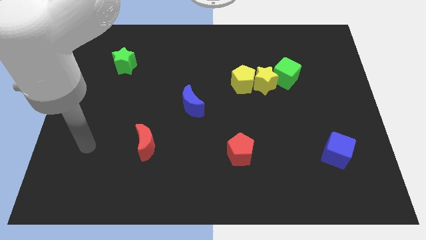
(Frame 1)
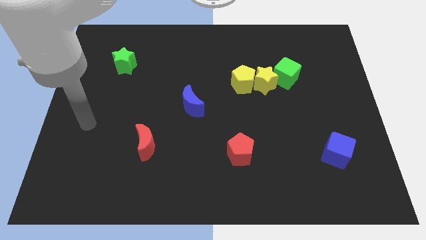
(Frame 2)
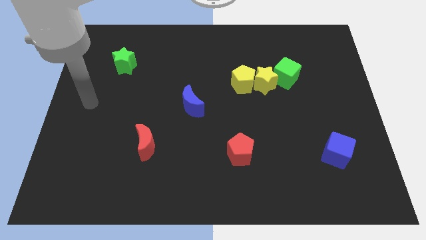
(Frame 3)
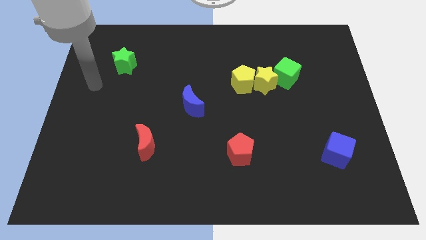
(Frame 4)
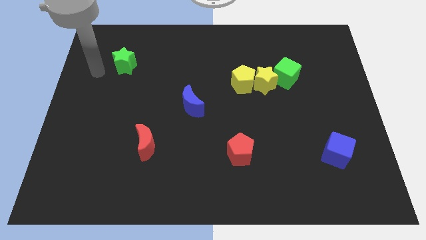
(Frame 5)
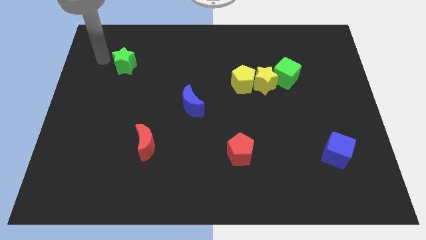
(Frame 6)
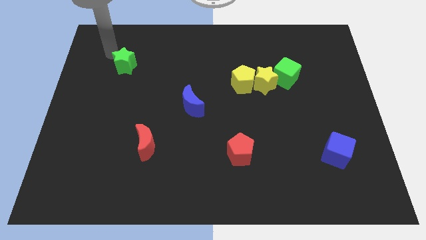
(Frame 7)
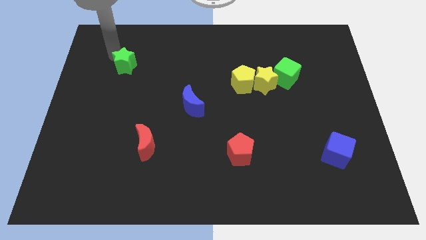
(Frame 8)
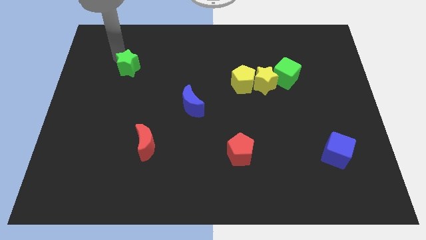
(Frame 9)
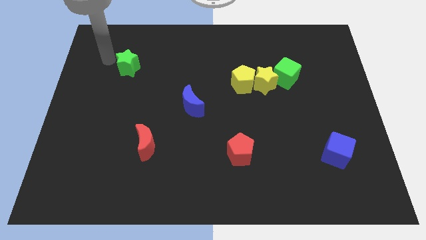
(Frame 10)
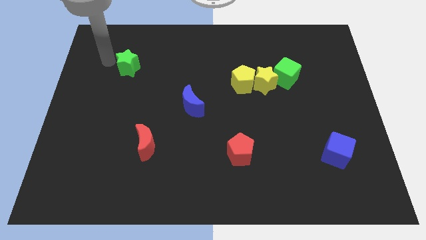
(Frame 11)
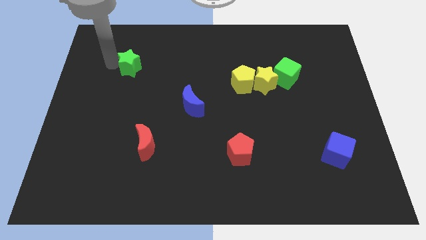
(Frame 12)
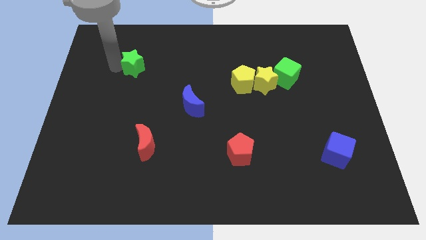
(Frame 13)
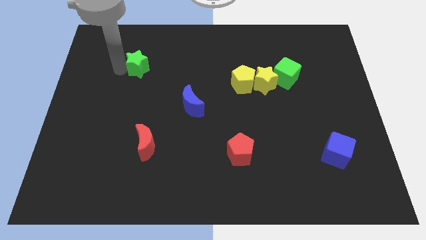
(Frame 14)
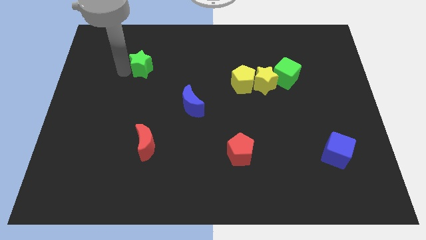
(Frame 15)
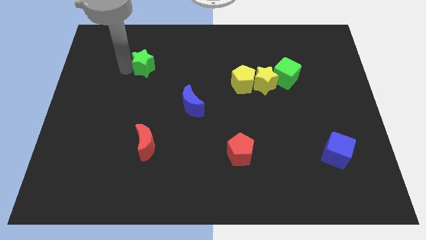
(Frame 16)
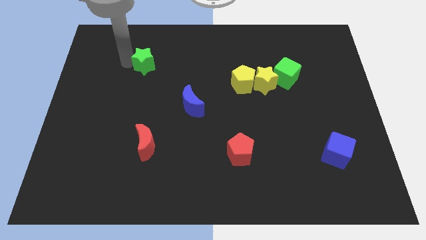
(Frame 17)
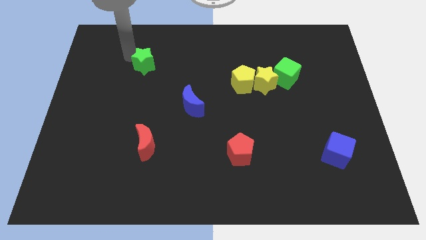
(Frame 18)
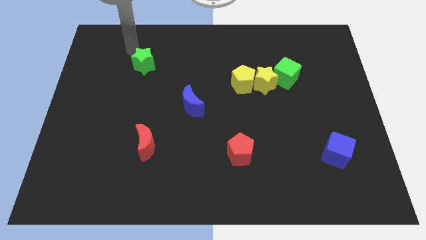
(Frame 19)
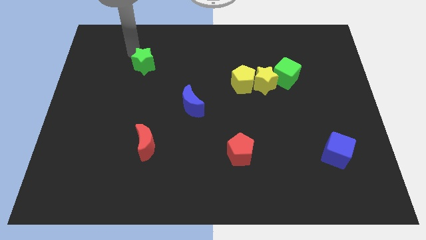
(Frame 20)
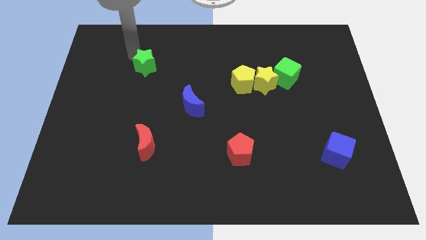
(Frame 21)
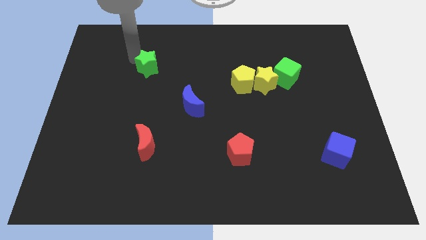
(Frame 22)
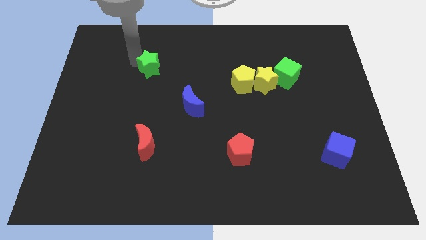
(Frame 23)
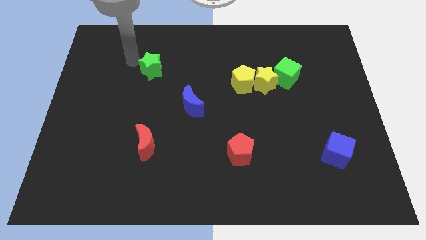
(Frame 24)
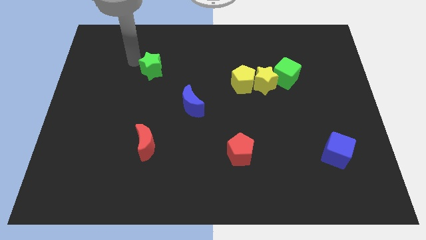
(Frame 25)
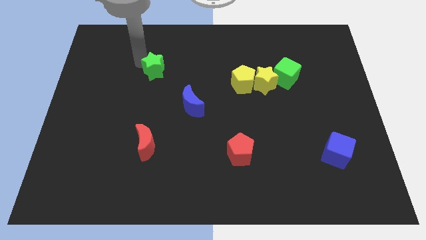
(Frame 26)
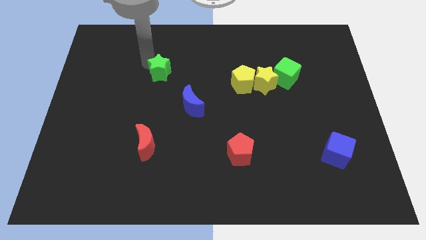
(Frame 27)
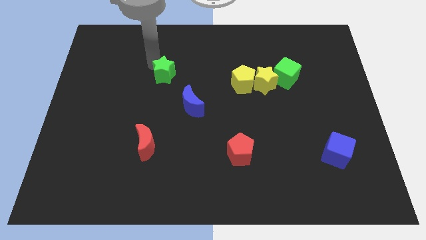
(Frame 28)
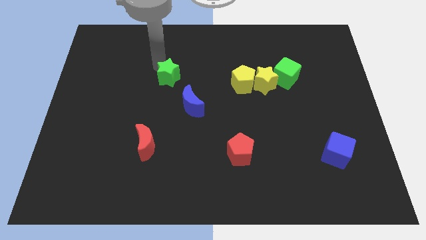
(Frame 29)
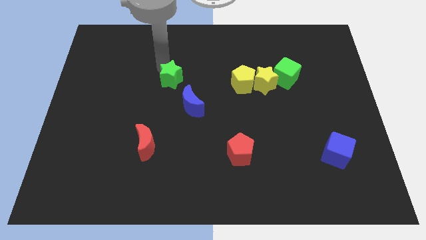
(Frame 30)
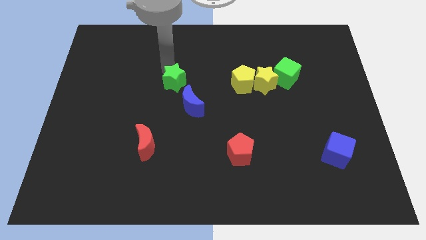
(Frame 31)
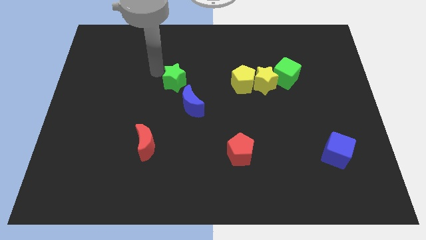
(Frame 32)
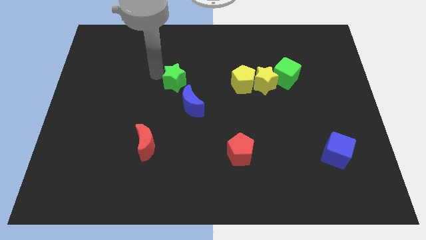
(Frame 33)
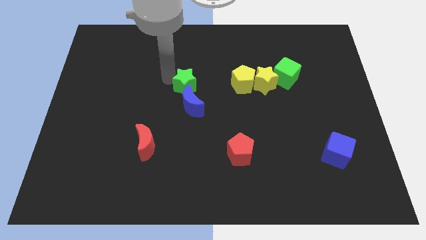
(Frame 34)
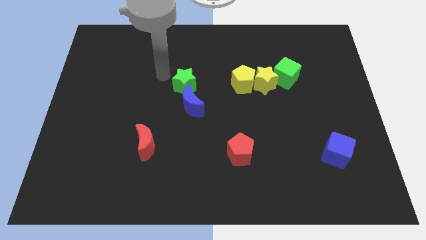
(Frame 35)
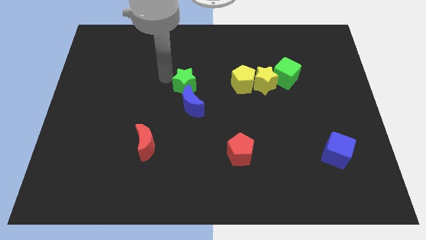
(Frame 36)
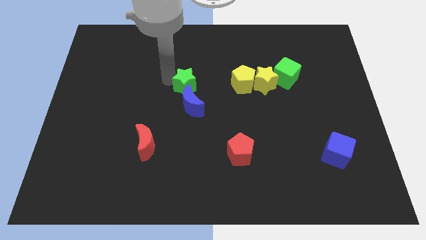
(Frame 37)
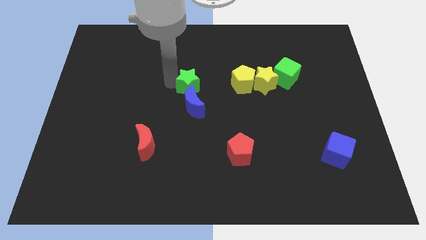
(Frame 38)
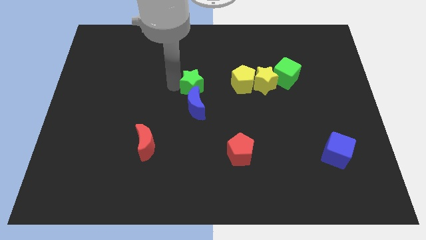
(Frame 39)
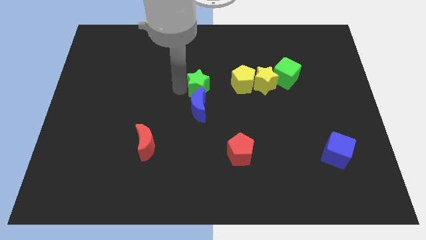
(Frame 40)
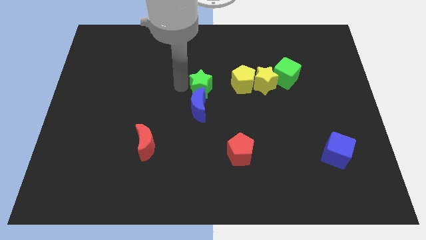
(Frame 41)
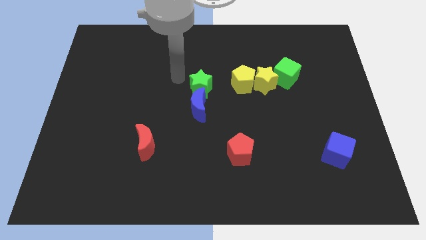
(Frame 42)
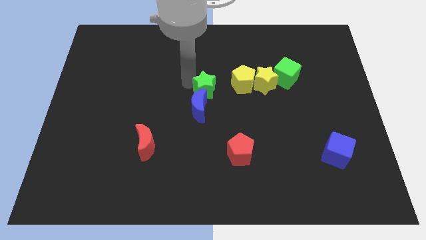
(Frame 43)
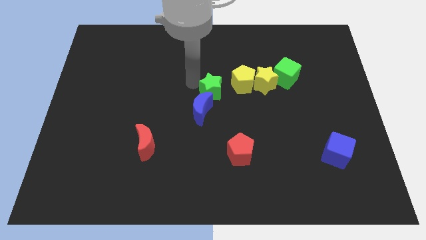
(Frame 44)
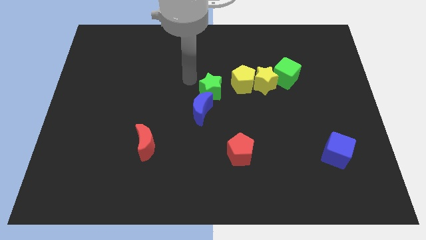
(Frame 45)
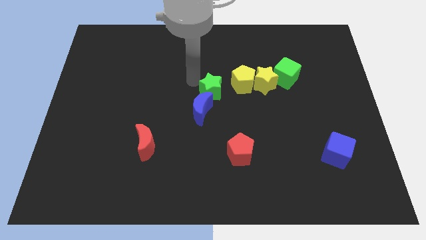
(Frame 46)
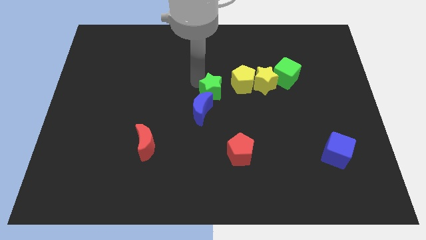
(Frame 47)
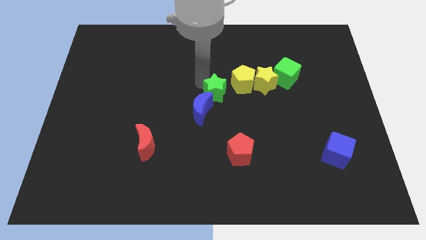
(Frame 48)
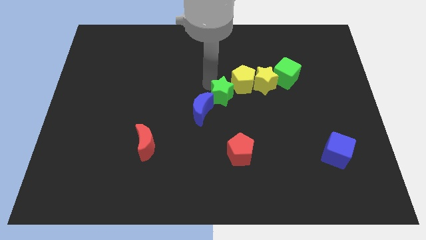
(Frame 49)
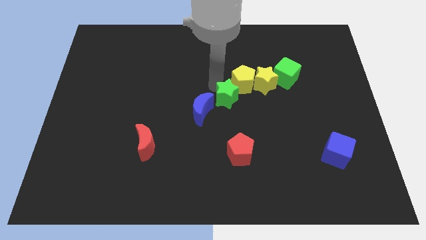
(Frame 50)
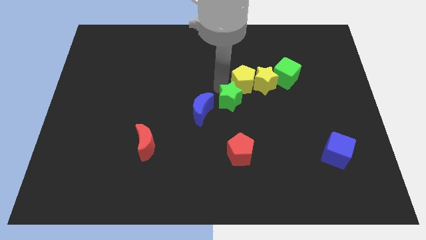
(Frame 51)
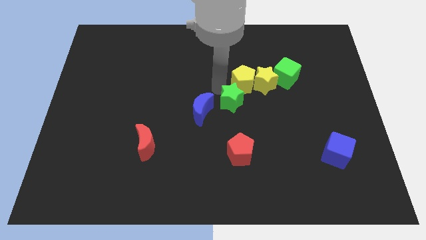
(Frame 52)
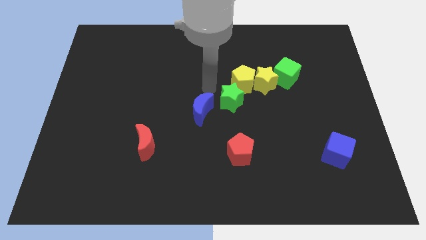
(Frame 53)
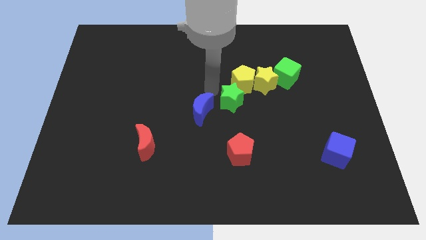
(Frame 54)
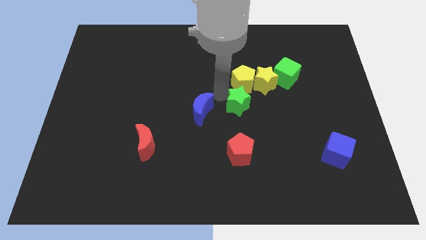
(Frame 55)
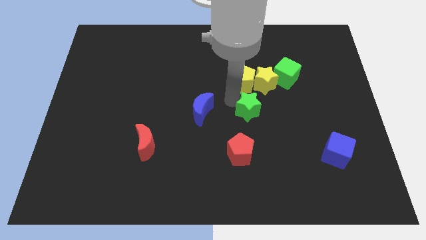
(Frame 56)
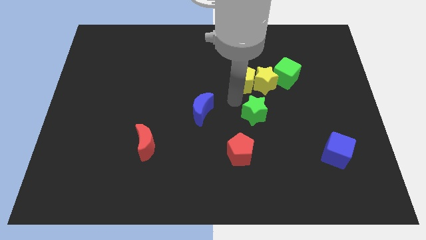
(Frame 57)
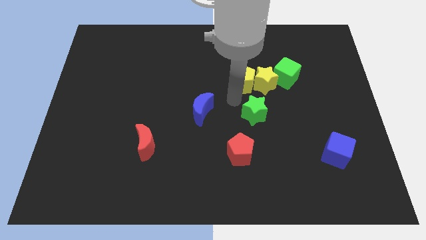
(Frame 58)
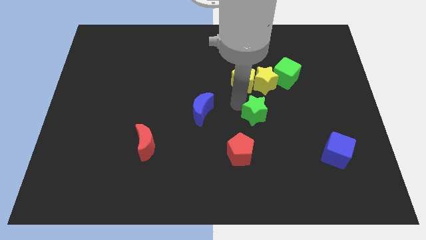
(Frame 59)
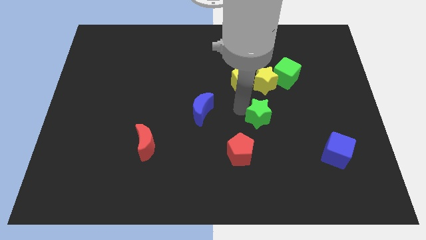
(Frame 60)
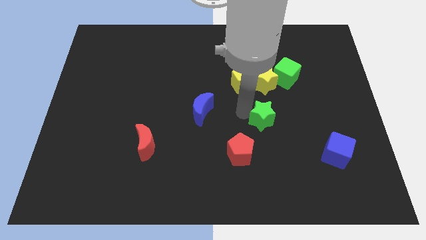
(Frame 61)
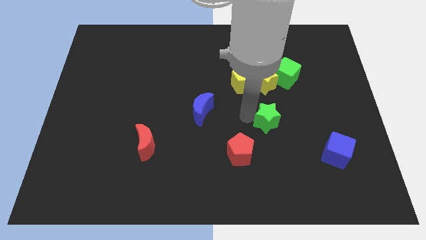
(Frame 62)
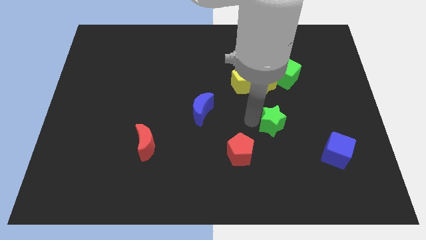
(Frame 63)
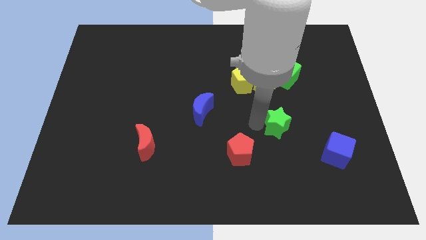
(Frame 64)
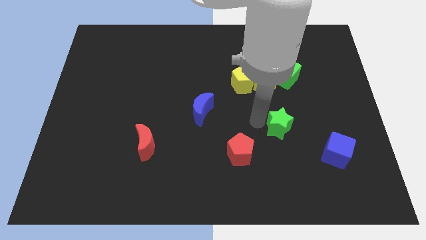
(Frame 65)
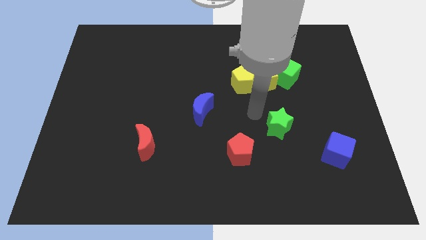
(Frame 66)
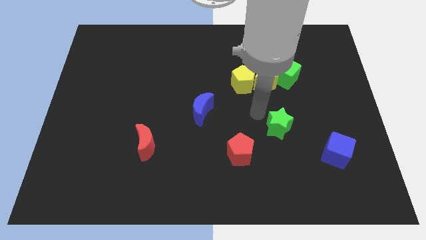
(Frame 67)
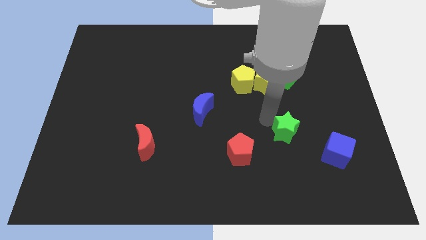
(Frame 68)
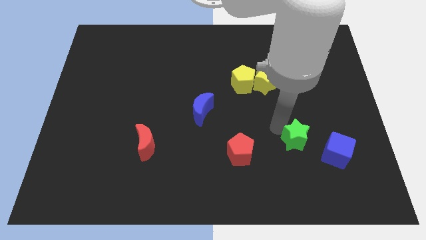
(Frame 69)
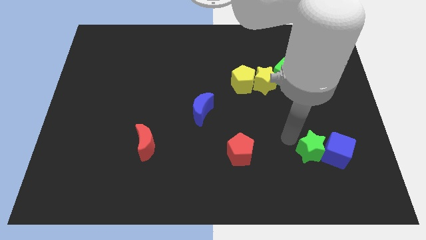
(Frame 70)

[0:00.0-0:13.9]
move the green star towards the blue cube

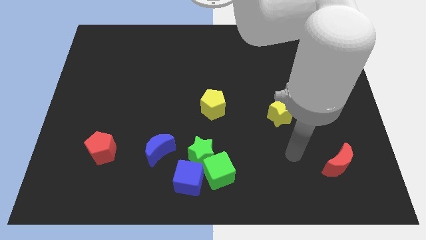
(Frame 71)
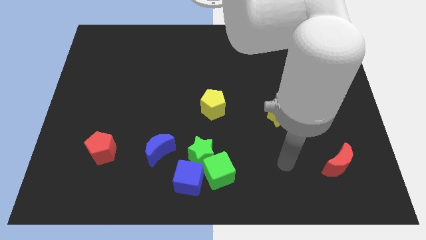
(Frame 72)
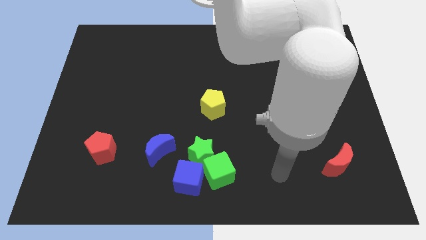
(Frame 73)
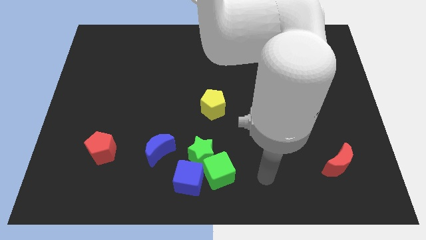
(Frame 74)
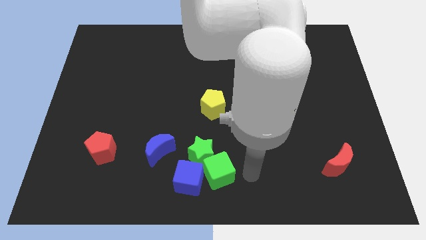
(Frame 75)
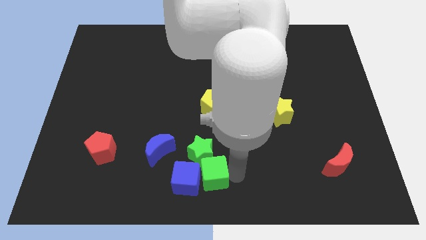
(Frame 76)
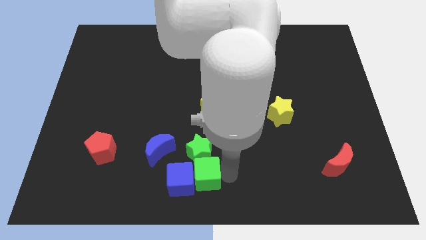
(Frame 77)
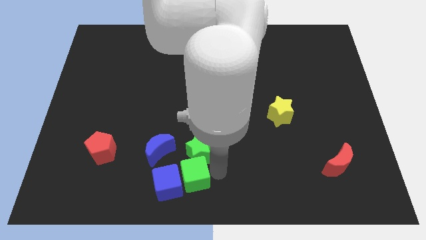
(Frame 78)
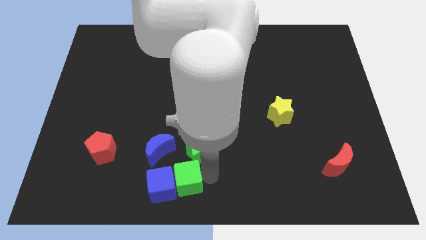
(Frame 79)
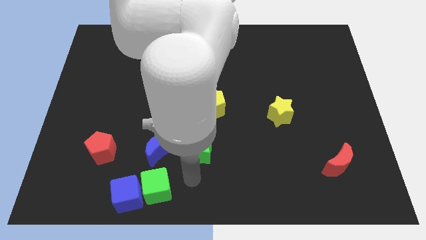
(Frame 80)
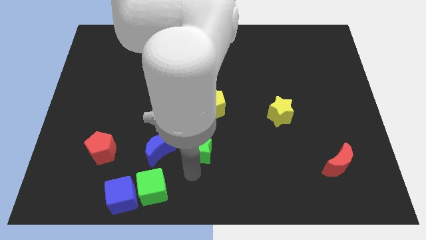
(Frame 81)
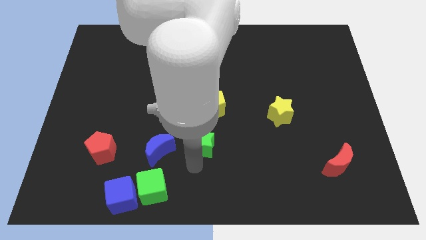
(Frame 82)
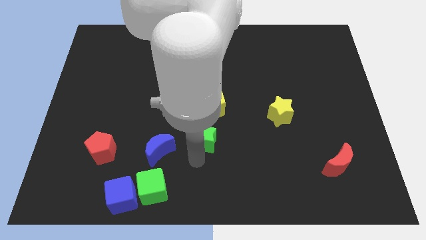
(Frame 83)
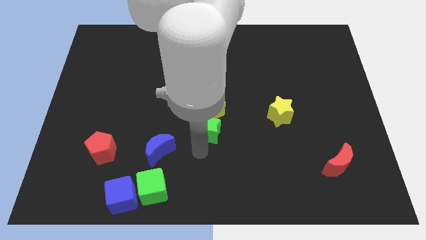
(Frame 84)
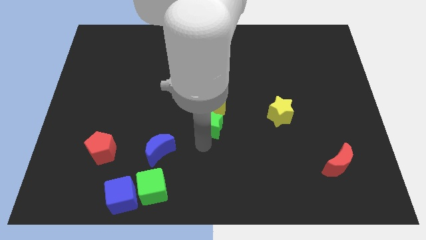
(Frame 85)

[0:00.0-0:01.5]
put the green star to the yellow pentagon
